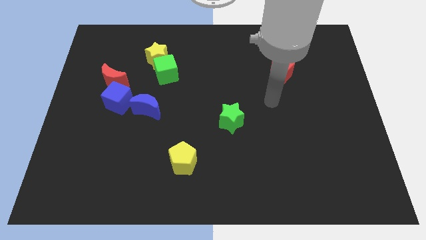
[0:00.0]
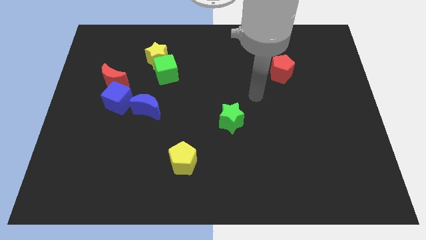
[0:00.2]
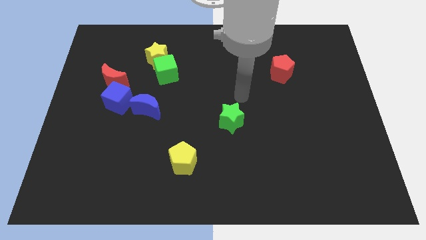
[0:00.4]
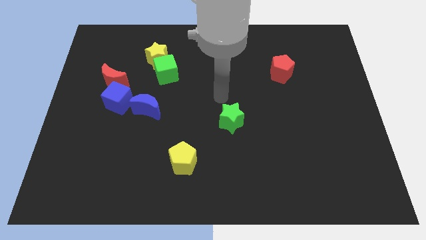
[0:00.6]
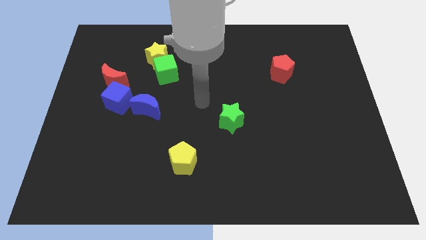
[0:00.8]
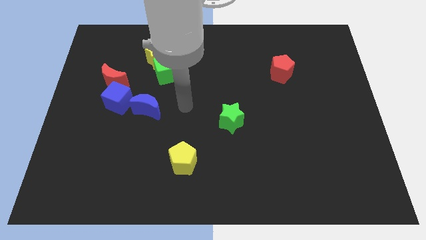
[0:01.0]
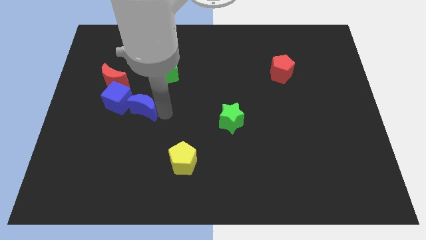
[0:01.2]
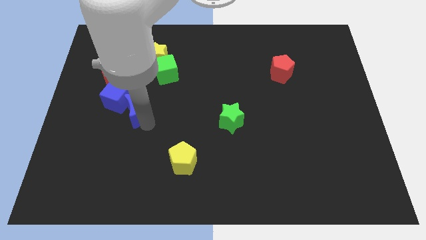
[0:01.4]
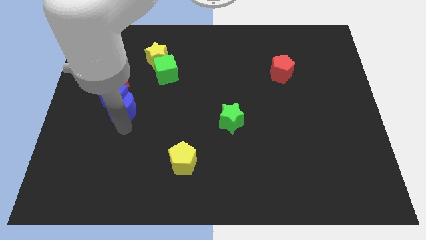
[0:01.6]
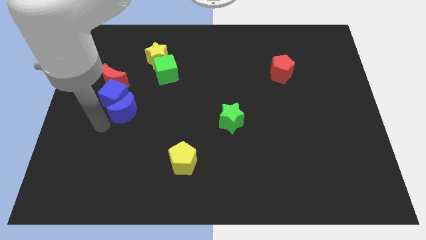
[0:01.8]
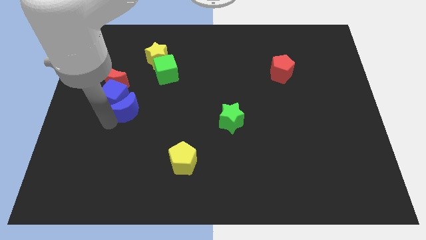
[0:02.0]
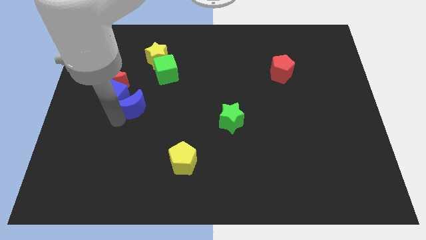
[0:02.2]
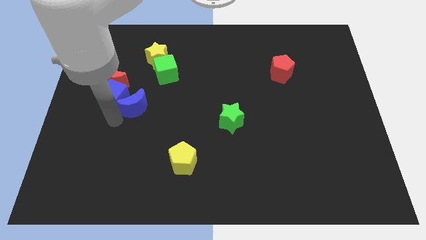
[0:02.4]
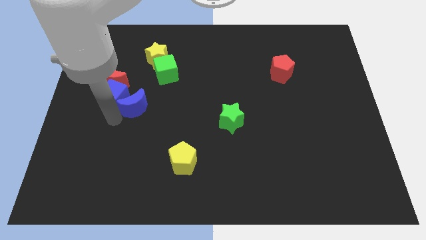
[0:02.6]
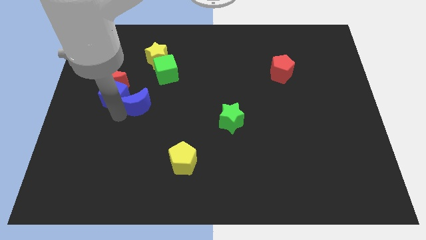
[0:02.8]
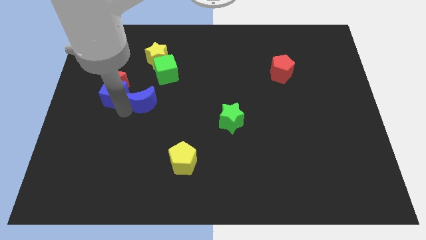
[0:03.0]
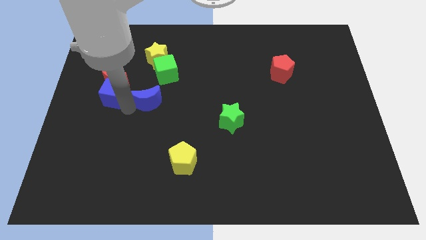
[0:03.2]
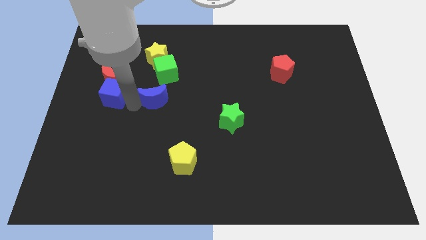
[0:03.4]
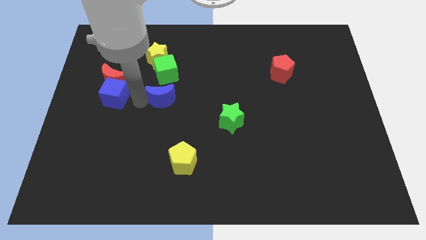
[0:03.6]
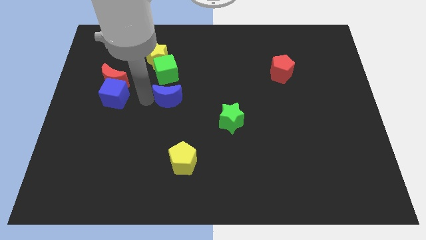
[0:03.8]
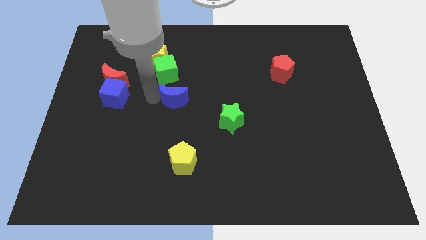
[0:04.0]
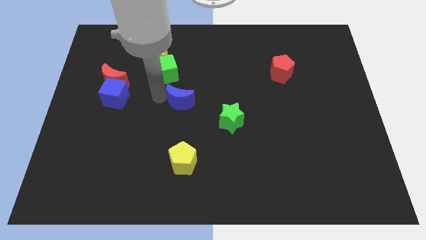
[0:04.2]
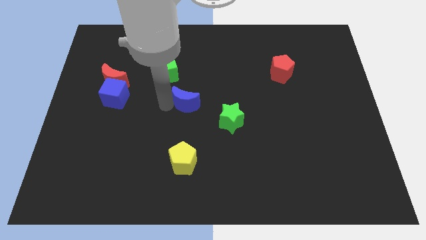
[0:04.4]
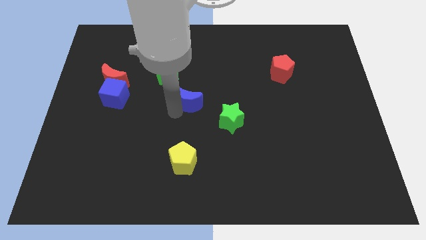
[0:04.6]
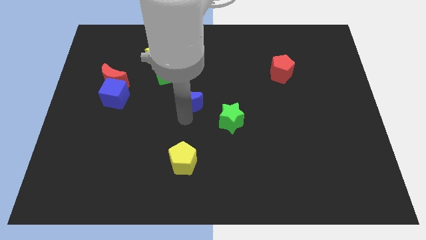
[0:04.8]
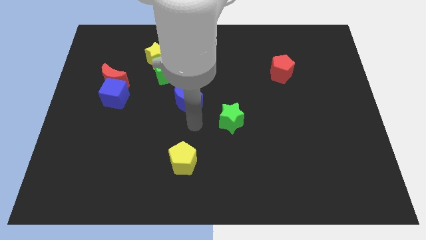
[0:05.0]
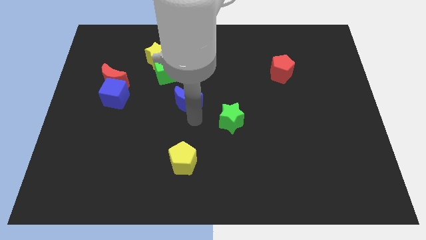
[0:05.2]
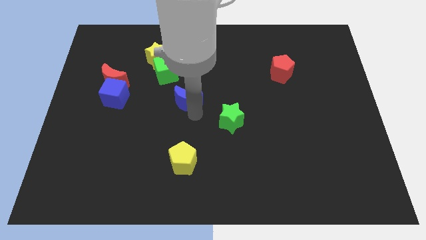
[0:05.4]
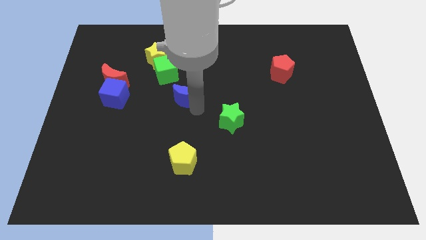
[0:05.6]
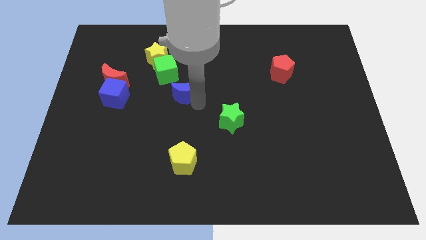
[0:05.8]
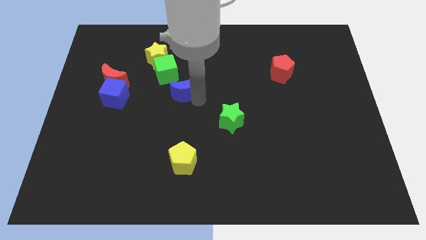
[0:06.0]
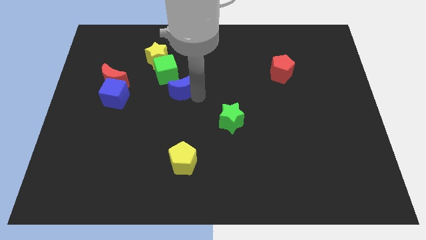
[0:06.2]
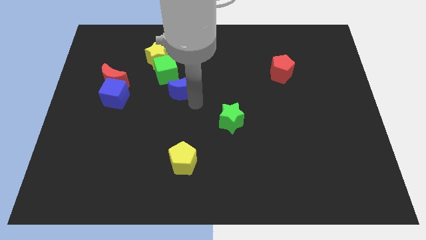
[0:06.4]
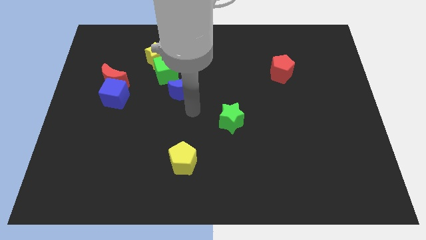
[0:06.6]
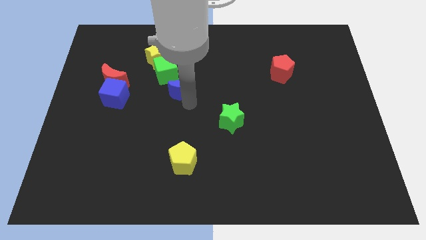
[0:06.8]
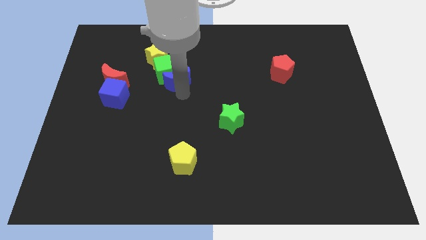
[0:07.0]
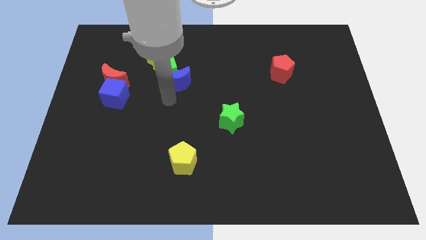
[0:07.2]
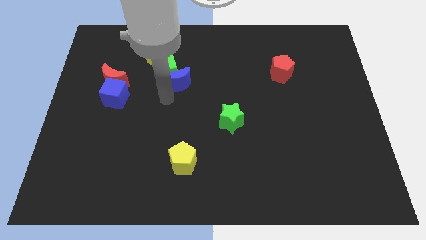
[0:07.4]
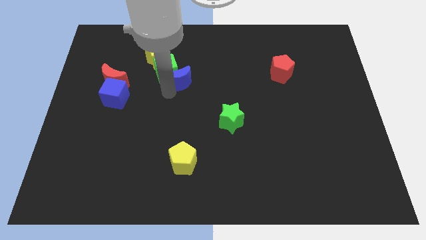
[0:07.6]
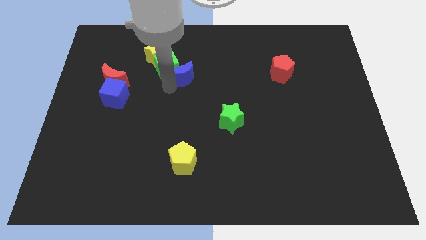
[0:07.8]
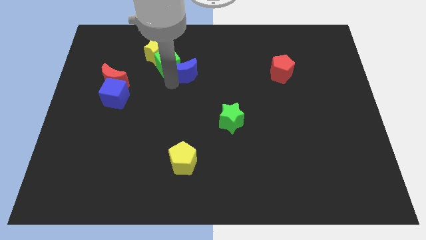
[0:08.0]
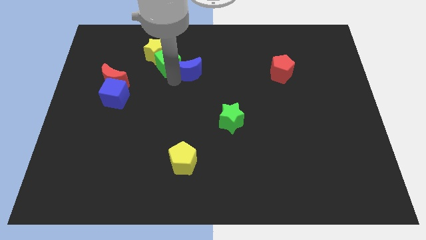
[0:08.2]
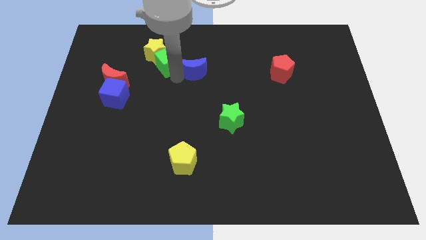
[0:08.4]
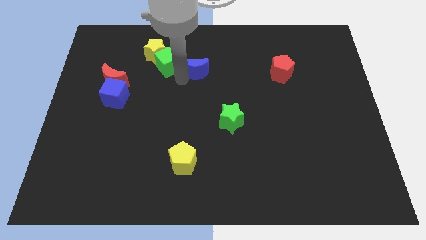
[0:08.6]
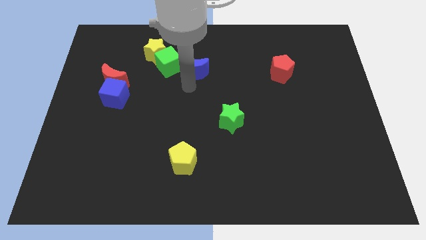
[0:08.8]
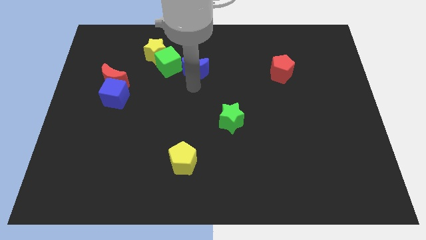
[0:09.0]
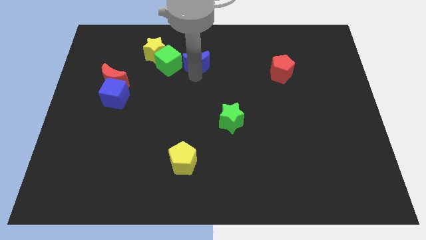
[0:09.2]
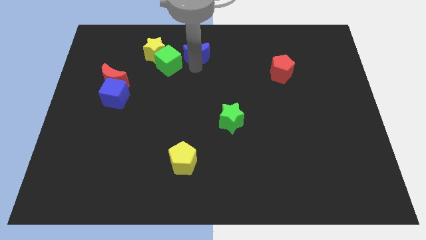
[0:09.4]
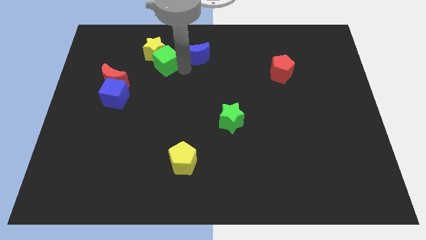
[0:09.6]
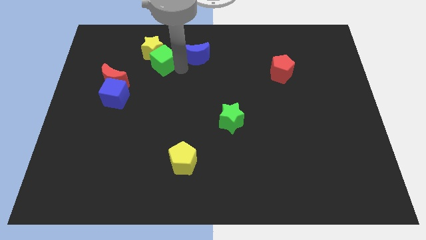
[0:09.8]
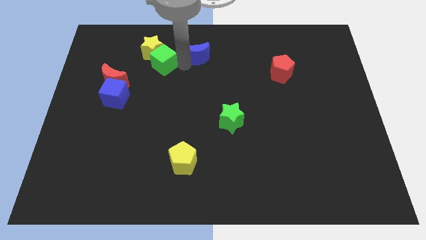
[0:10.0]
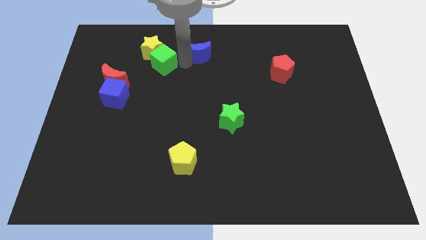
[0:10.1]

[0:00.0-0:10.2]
move the blue moon to the towards your base

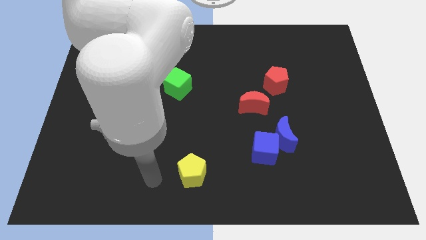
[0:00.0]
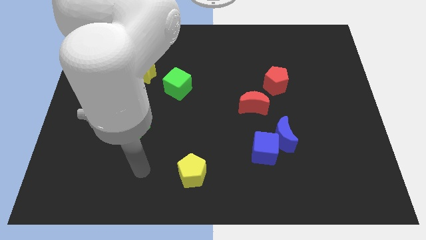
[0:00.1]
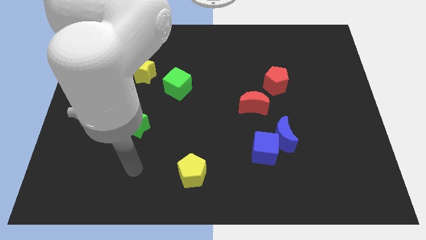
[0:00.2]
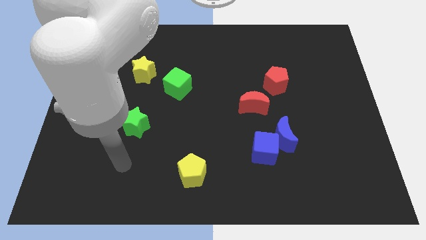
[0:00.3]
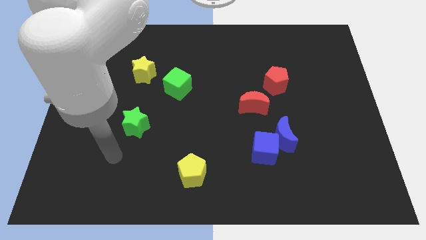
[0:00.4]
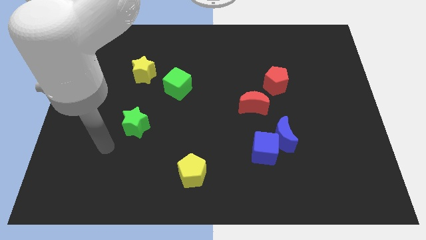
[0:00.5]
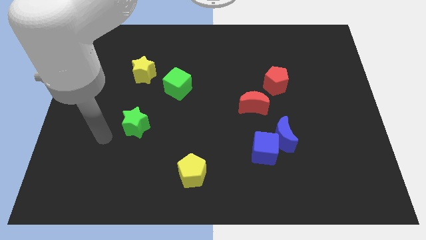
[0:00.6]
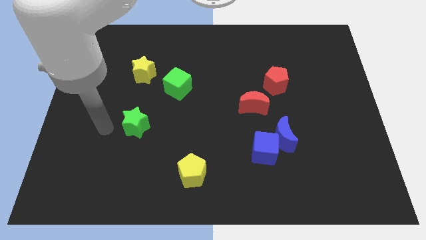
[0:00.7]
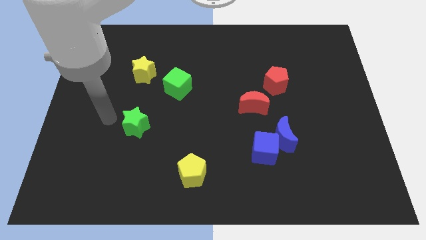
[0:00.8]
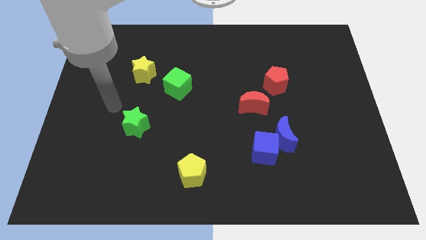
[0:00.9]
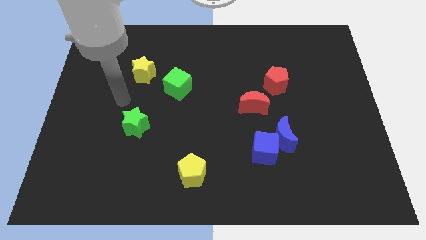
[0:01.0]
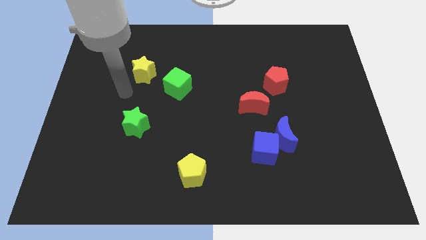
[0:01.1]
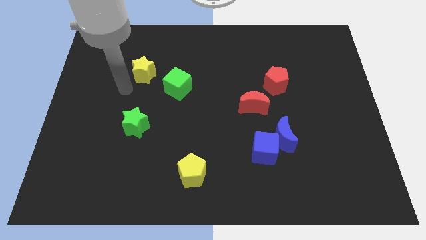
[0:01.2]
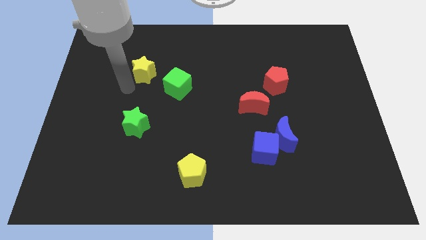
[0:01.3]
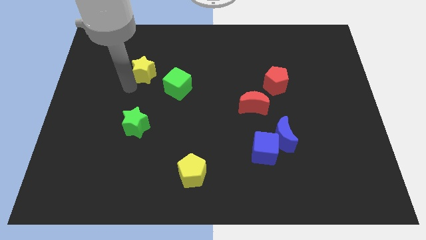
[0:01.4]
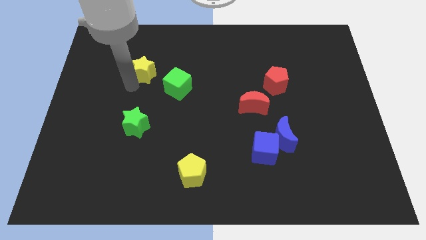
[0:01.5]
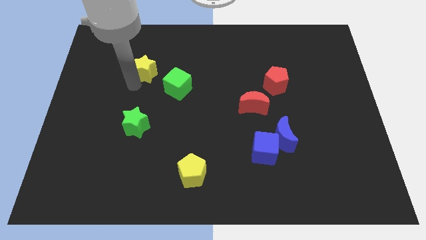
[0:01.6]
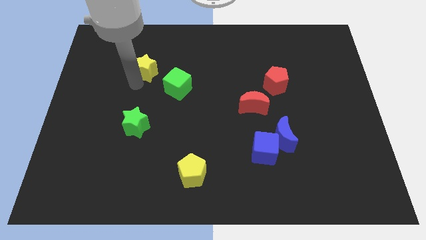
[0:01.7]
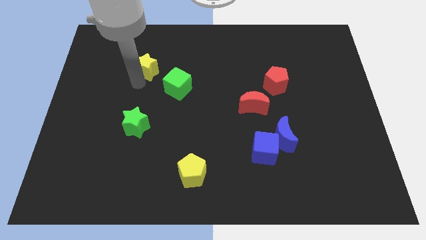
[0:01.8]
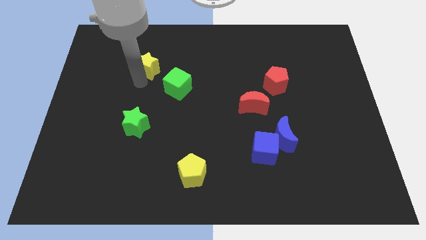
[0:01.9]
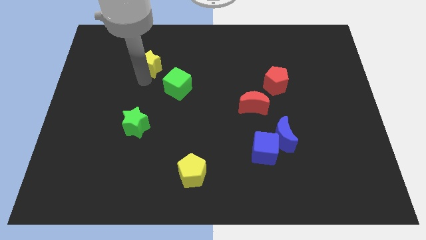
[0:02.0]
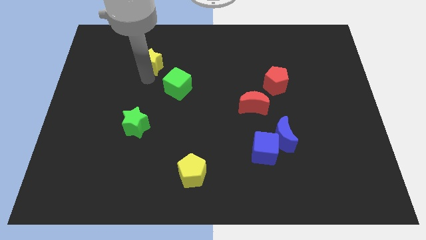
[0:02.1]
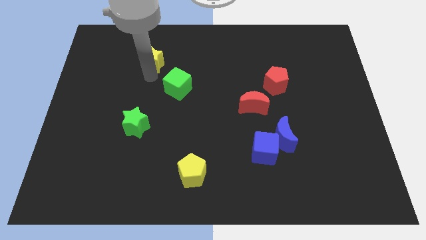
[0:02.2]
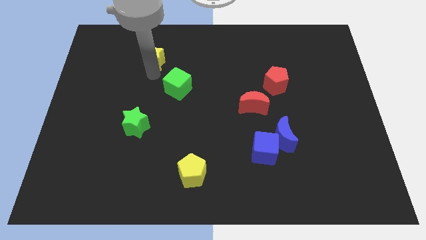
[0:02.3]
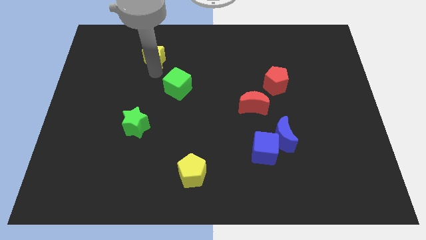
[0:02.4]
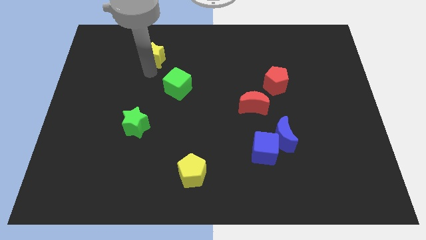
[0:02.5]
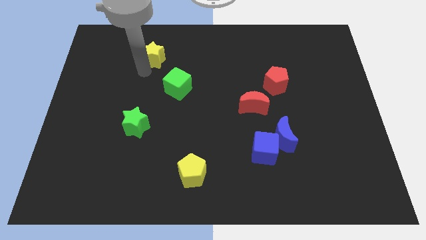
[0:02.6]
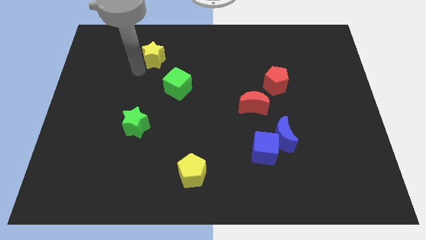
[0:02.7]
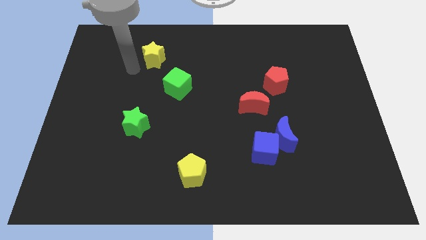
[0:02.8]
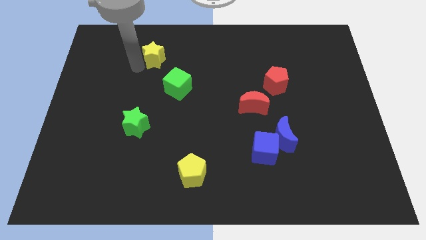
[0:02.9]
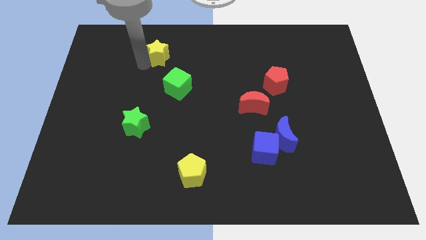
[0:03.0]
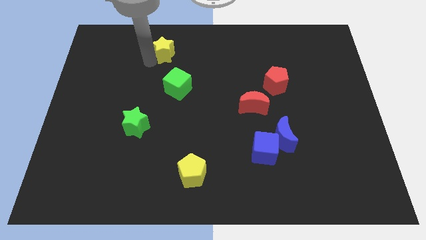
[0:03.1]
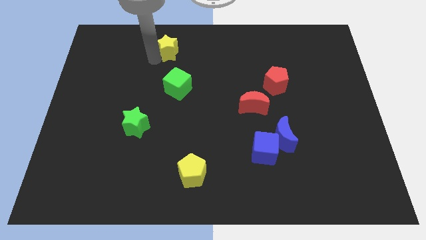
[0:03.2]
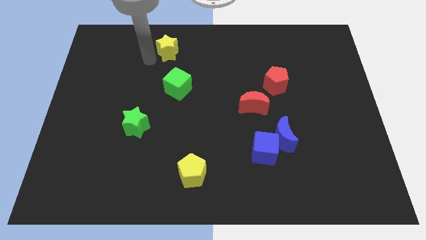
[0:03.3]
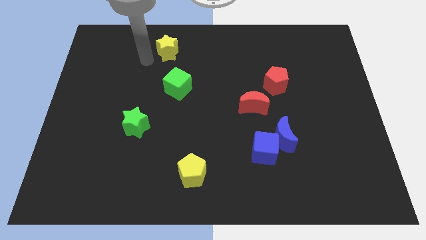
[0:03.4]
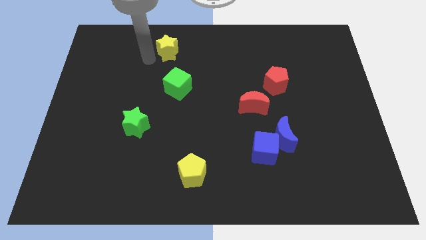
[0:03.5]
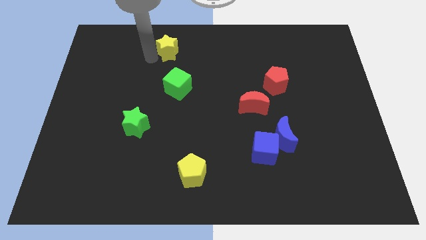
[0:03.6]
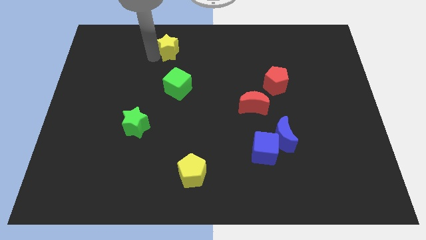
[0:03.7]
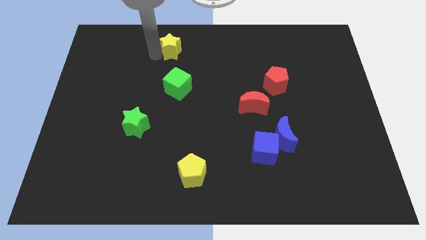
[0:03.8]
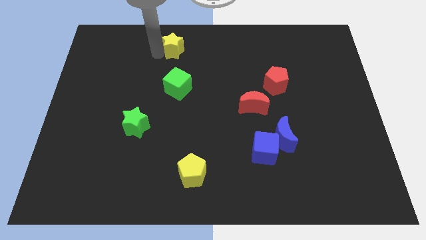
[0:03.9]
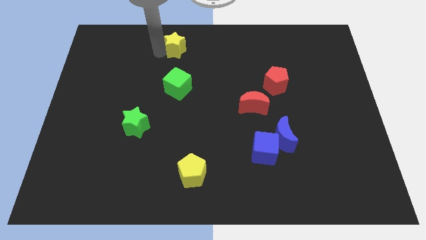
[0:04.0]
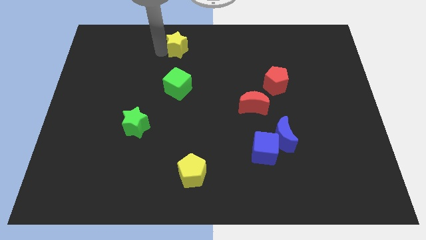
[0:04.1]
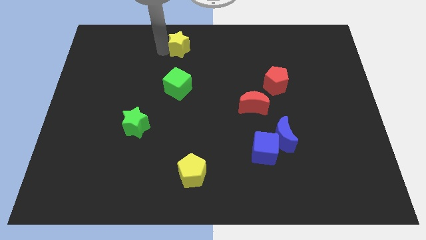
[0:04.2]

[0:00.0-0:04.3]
push the yellow star to the top
